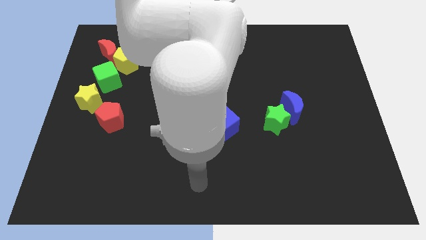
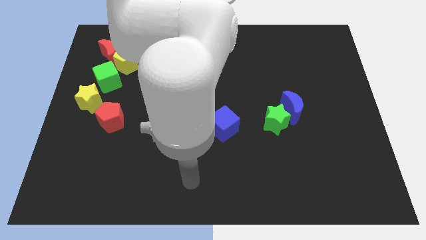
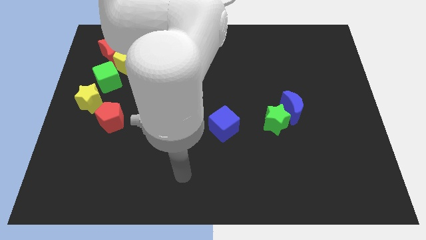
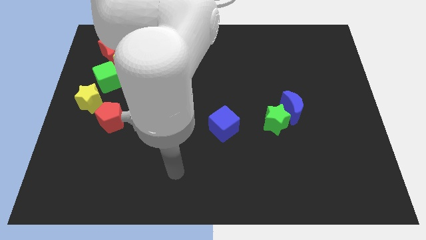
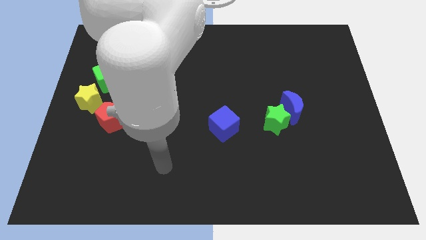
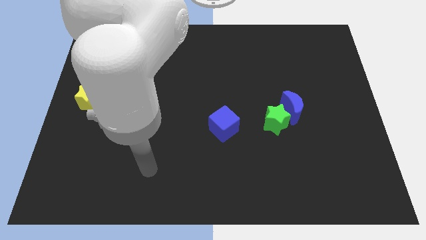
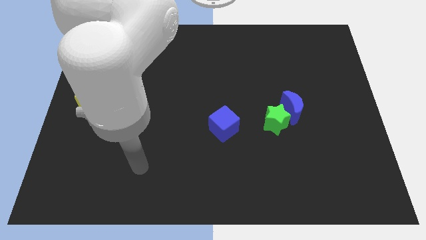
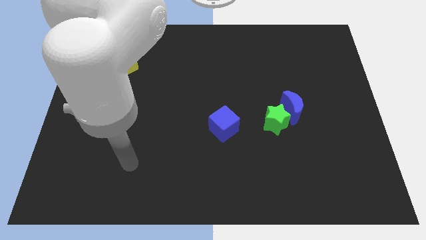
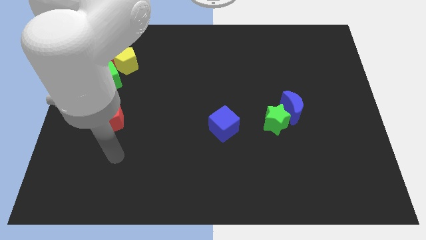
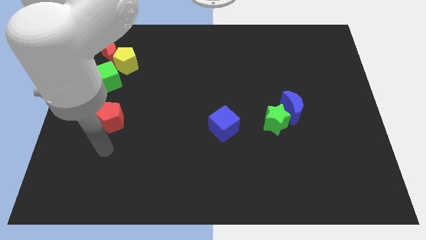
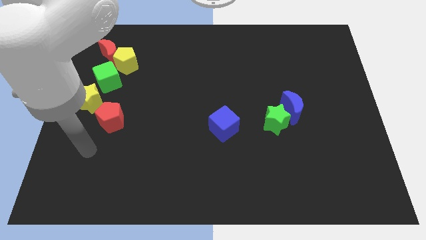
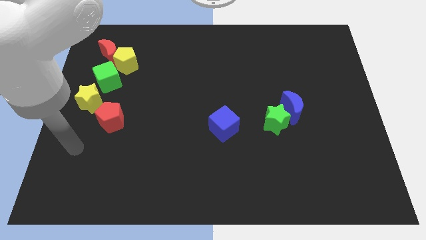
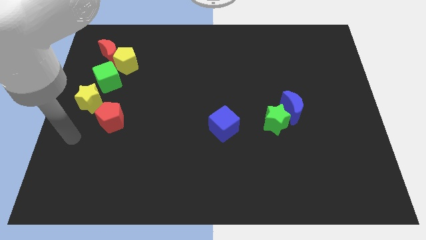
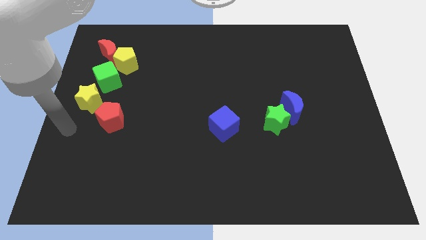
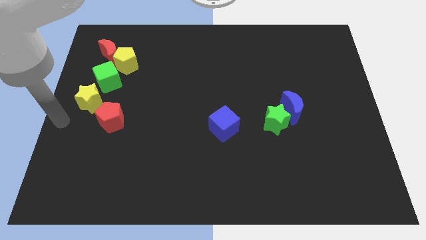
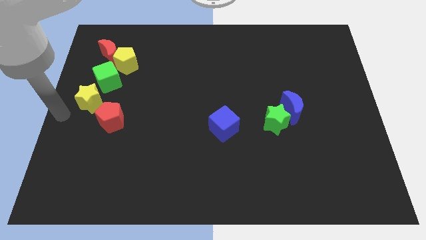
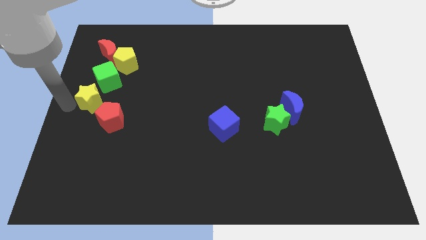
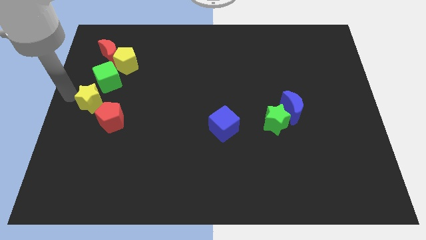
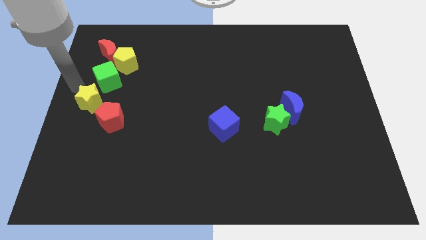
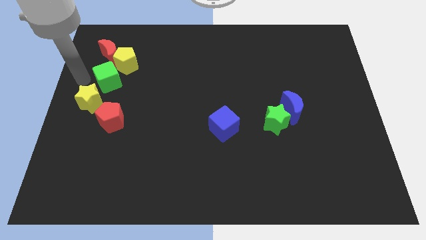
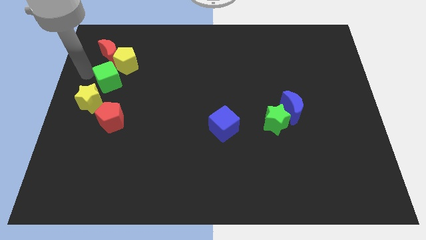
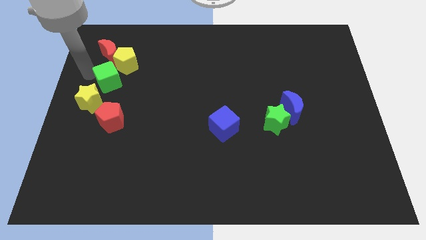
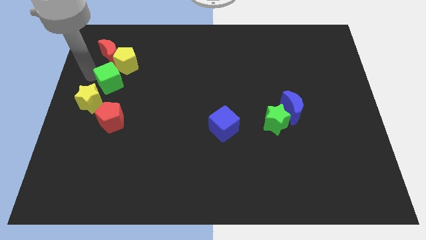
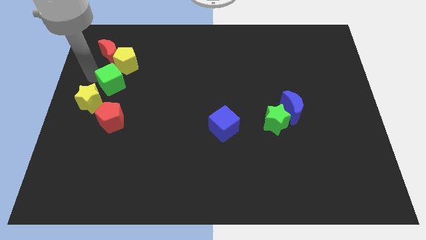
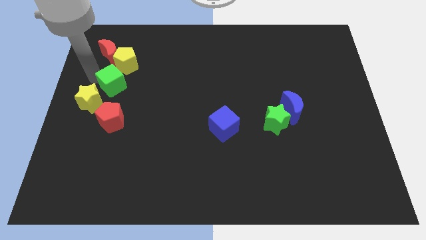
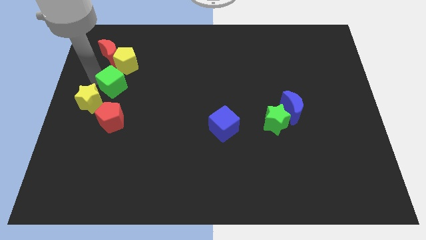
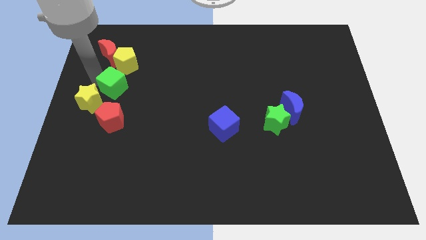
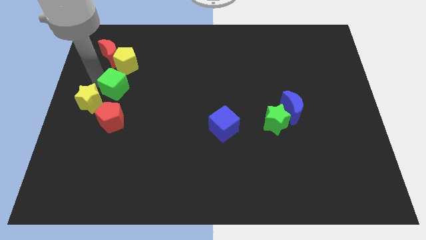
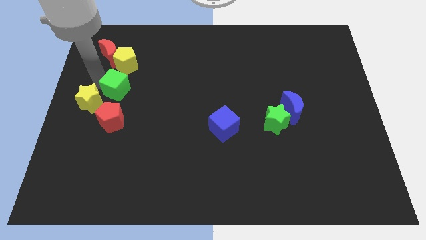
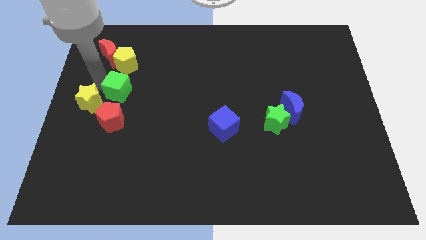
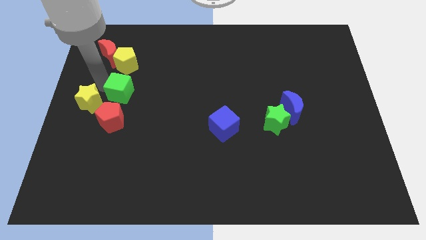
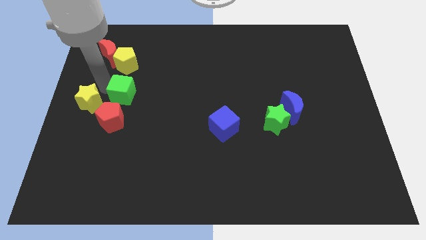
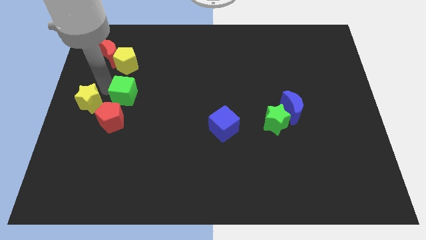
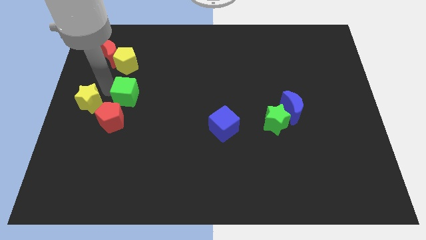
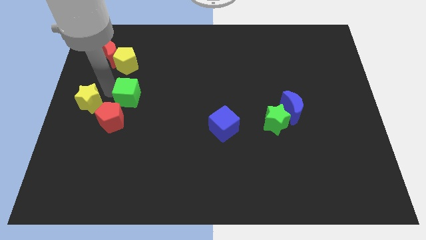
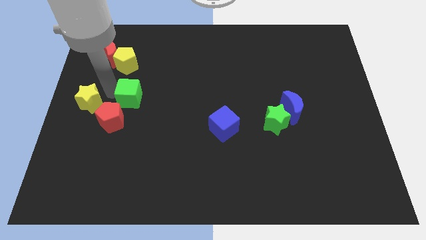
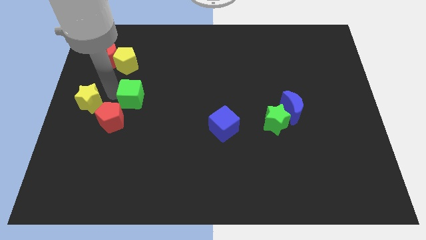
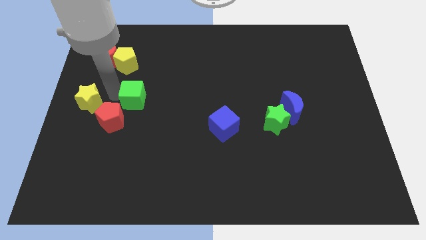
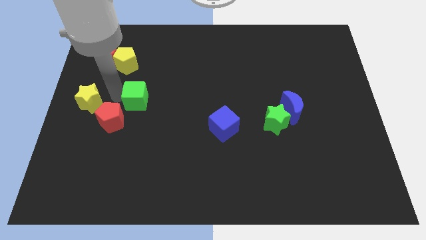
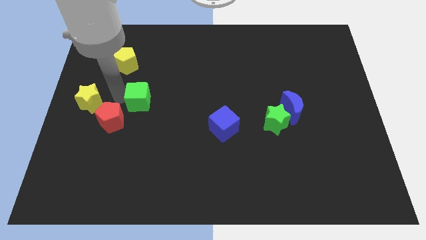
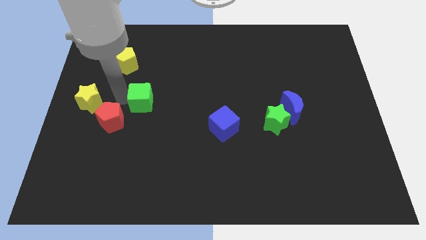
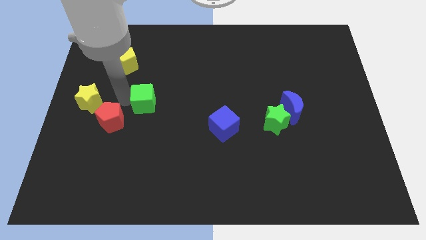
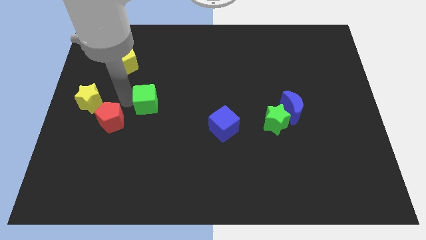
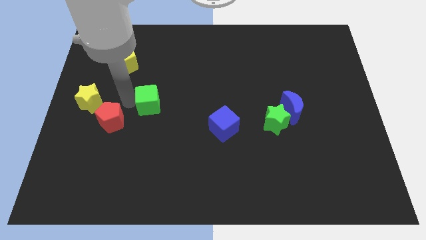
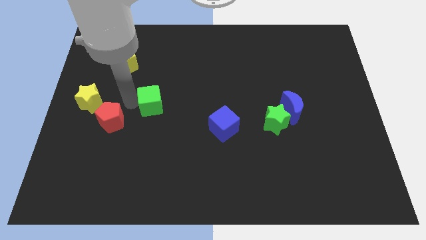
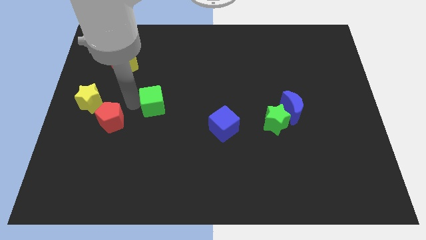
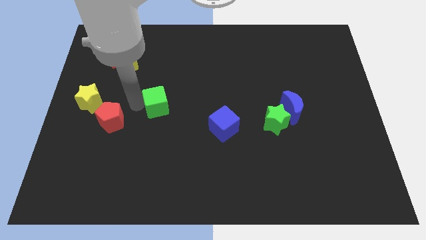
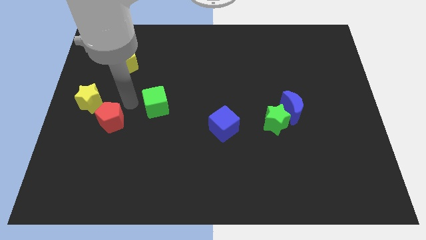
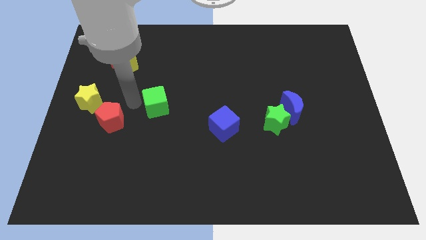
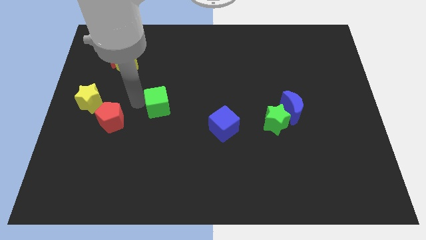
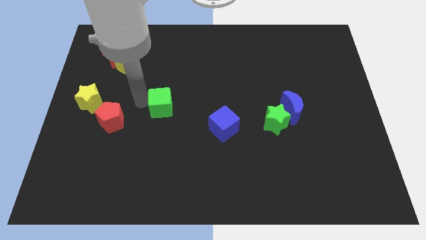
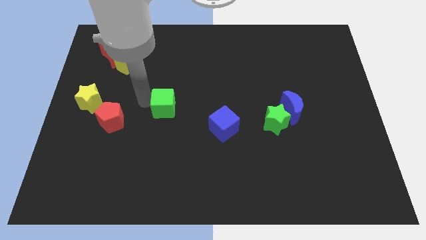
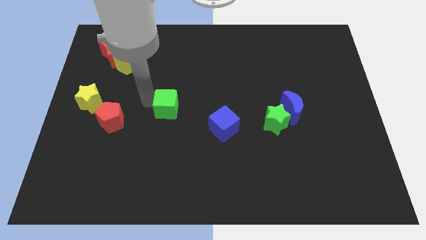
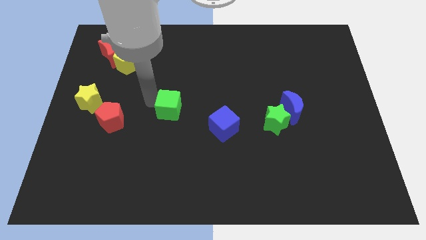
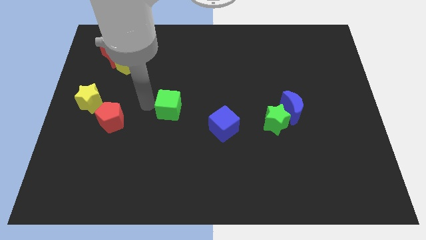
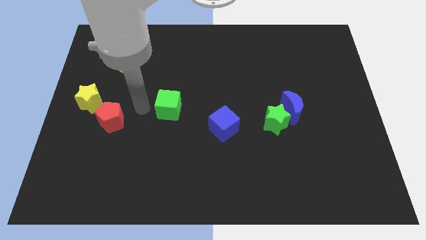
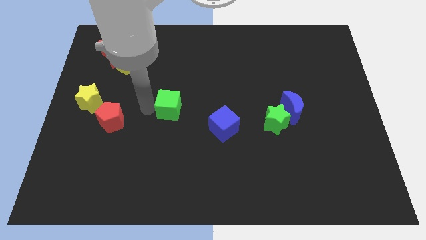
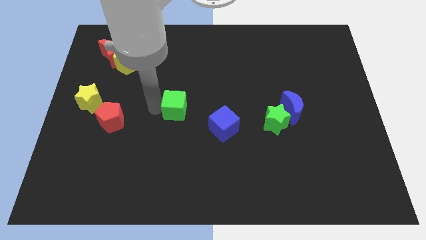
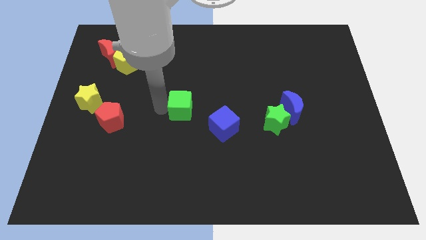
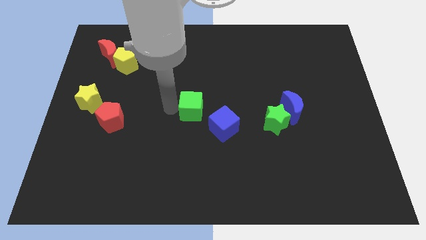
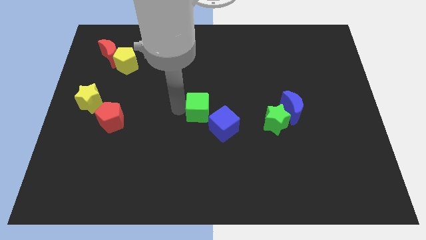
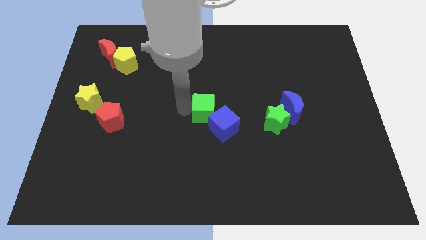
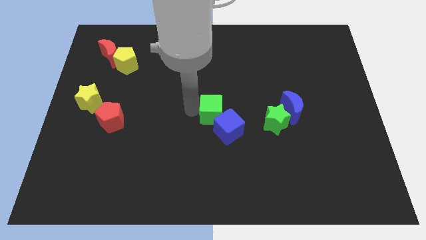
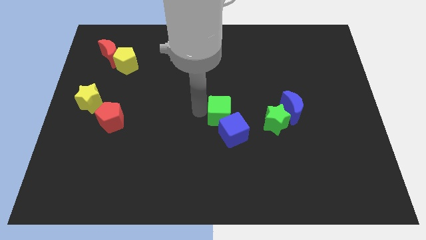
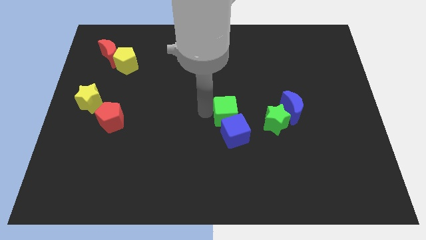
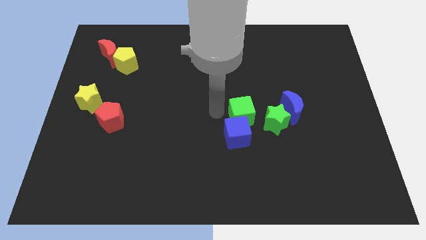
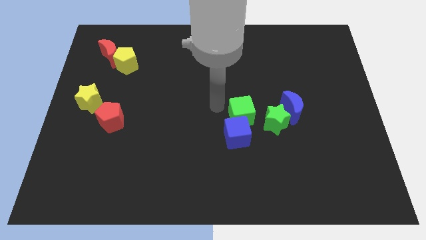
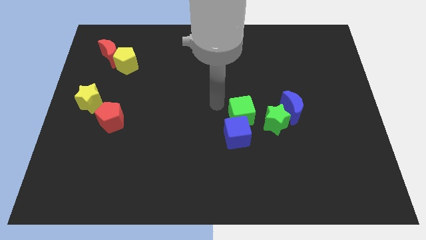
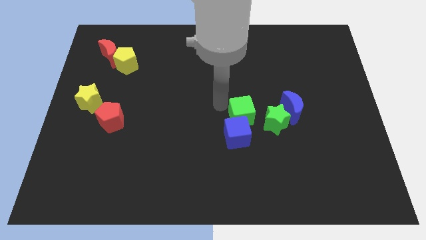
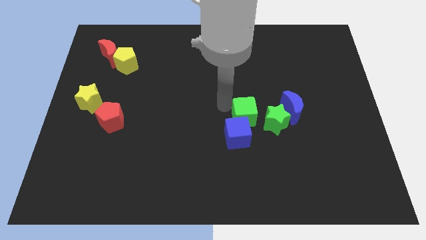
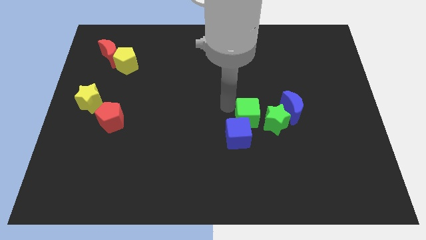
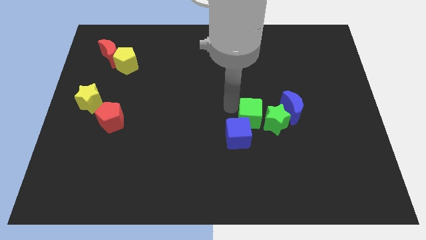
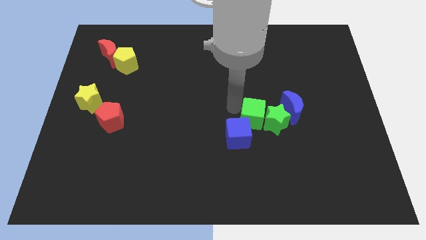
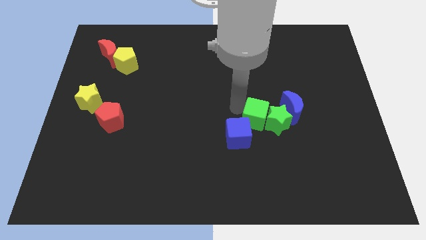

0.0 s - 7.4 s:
push the green cube to the bottom left of the blue moon

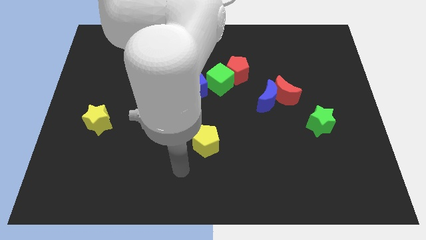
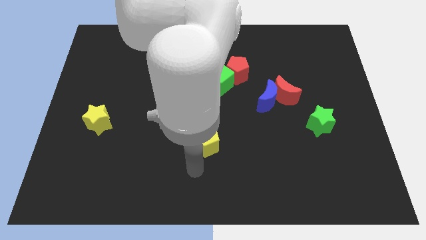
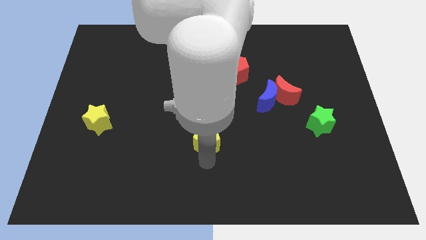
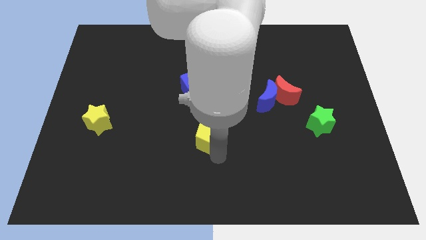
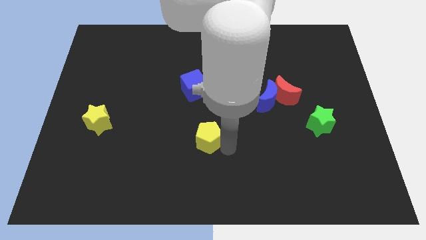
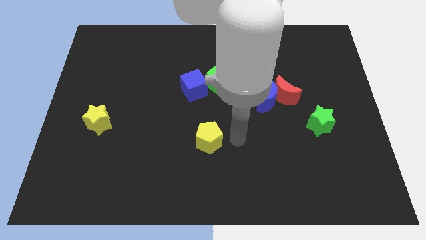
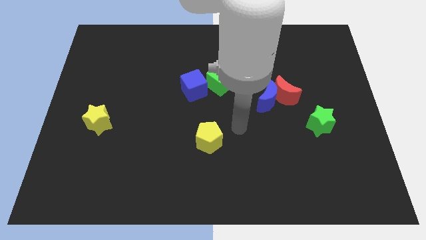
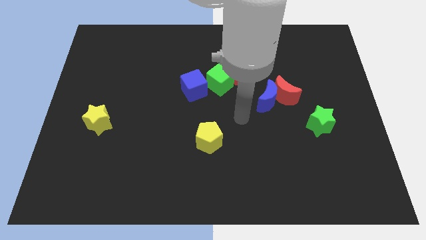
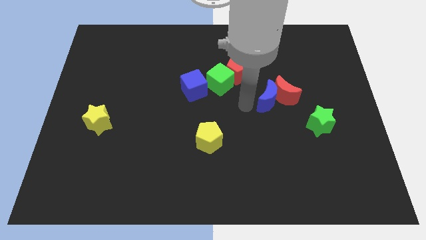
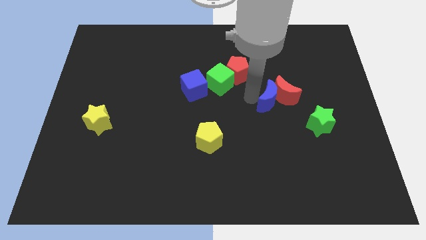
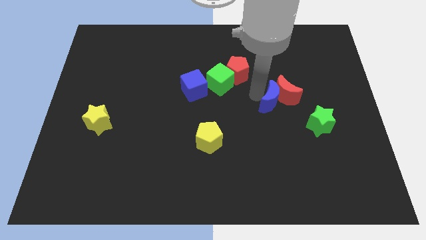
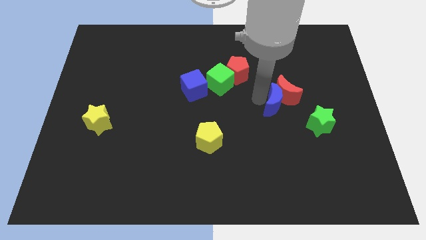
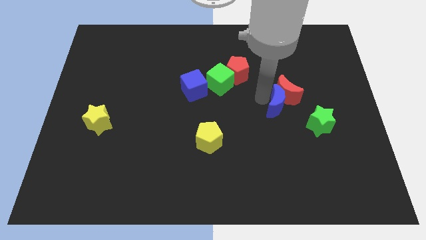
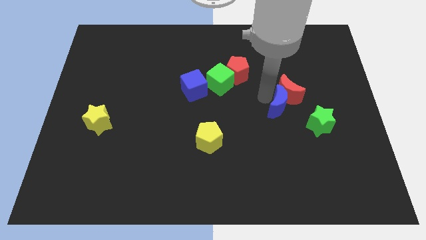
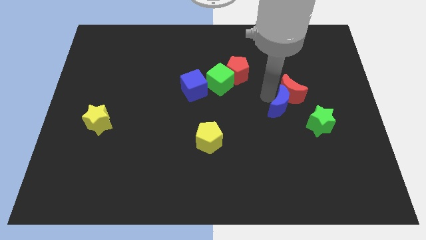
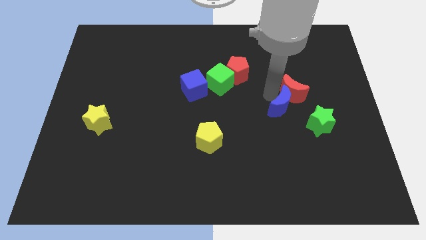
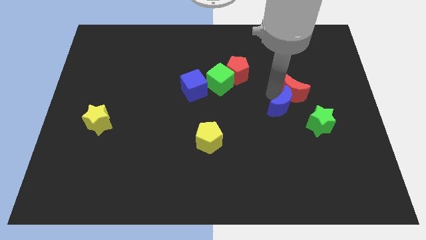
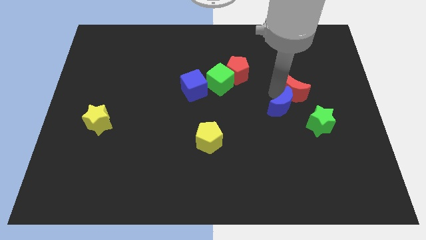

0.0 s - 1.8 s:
put the red moon to the top of the green star
